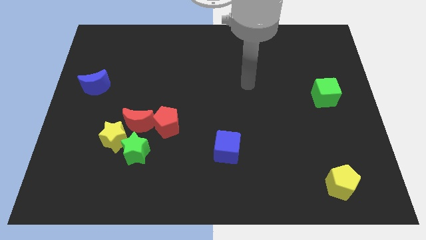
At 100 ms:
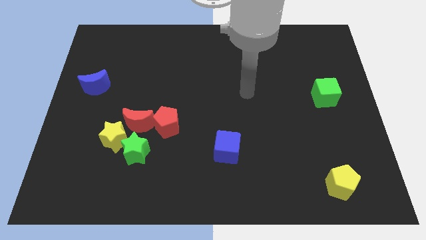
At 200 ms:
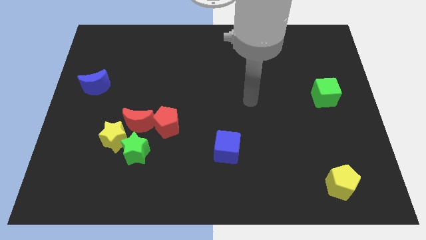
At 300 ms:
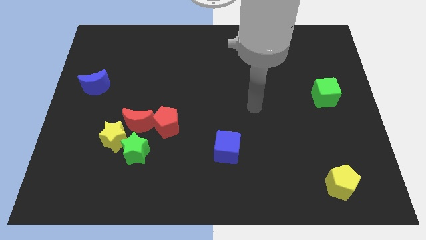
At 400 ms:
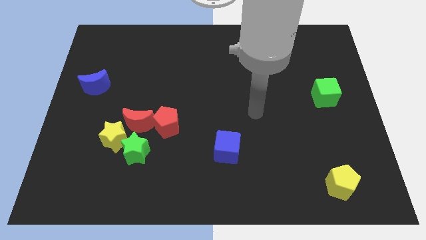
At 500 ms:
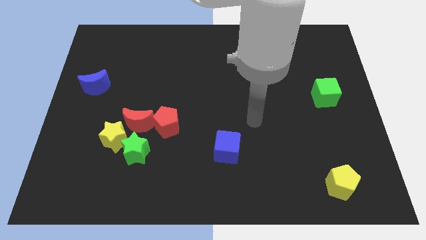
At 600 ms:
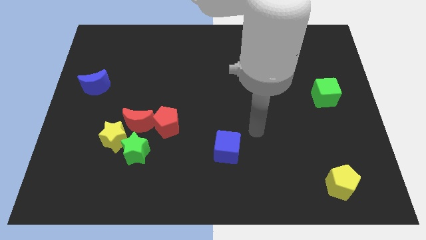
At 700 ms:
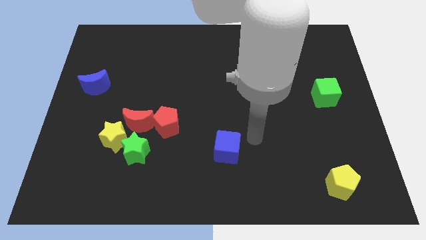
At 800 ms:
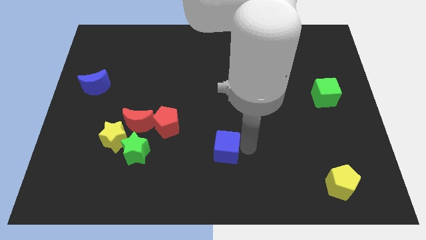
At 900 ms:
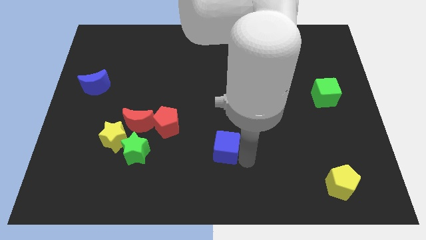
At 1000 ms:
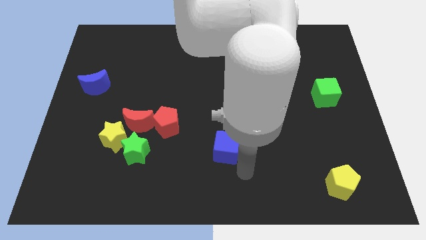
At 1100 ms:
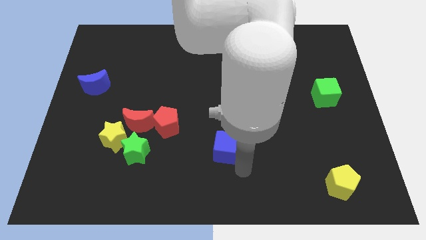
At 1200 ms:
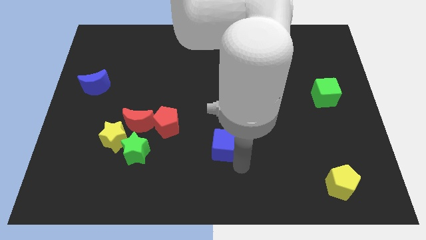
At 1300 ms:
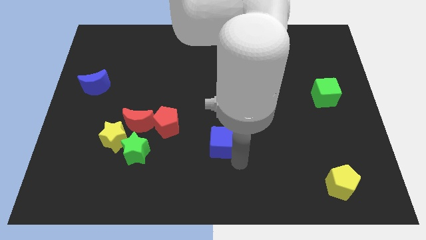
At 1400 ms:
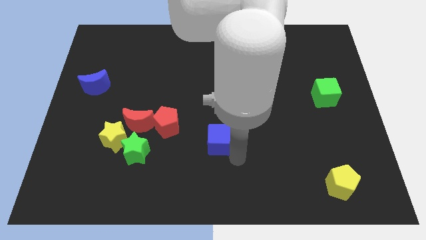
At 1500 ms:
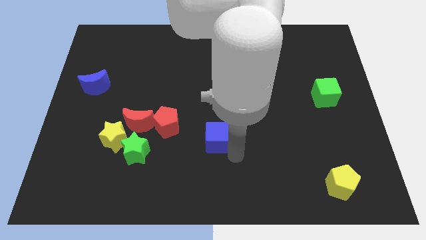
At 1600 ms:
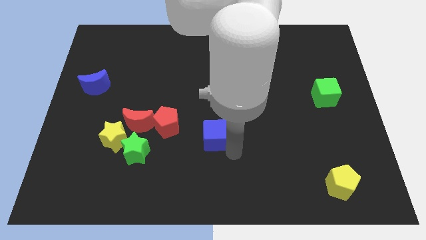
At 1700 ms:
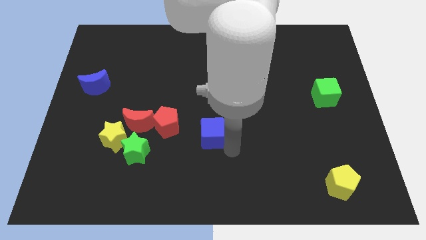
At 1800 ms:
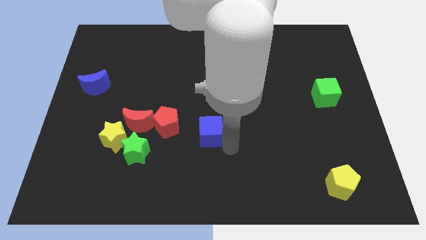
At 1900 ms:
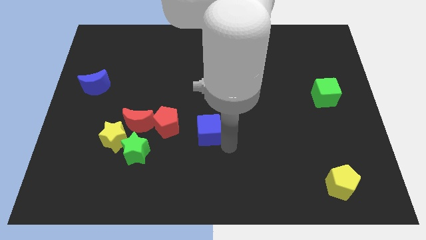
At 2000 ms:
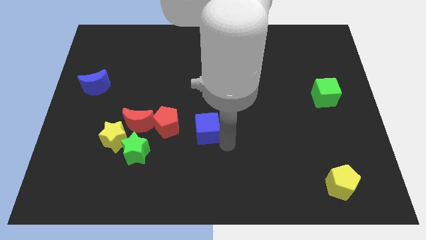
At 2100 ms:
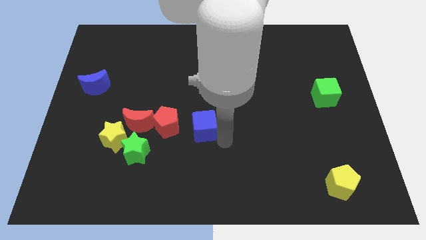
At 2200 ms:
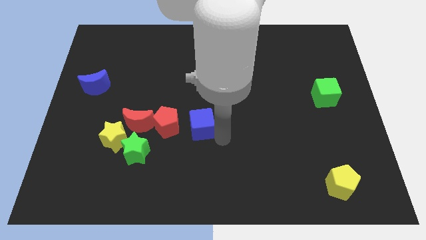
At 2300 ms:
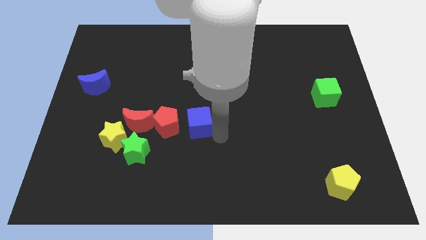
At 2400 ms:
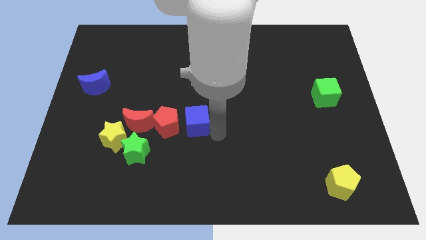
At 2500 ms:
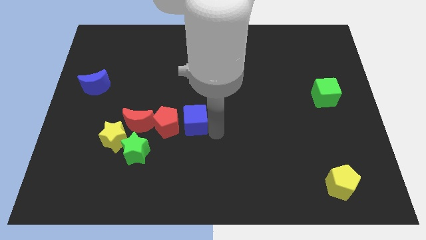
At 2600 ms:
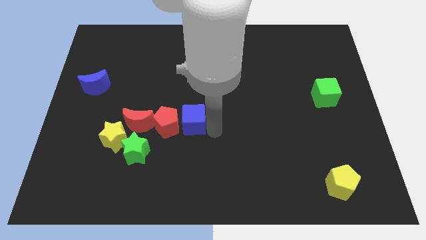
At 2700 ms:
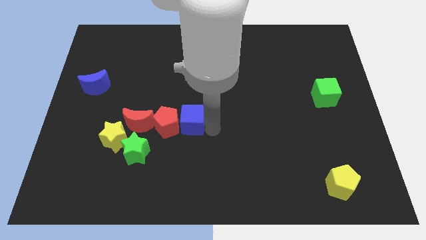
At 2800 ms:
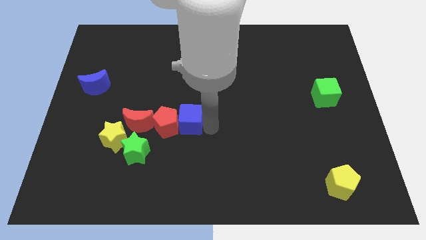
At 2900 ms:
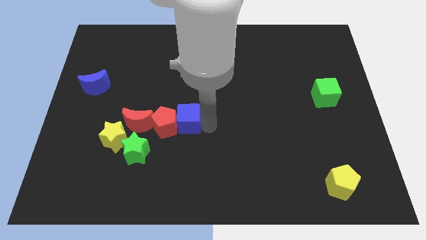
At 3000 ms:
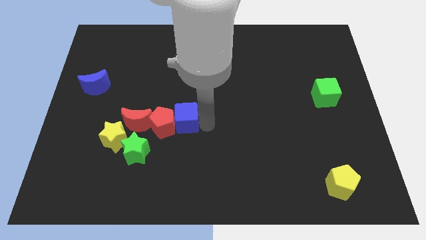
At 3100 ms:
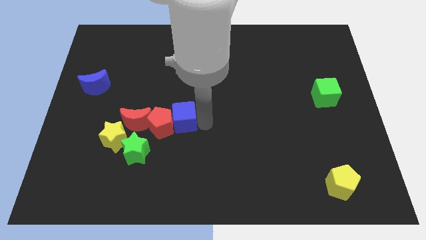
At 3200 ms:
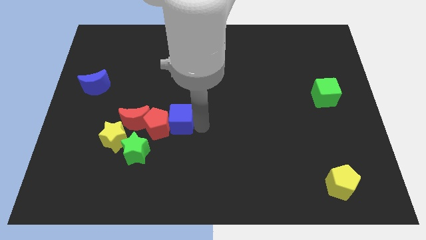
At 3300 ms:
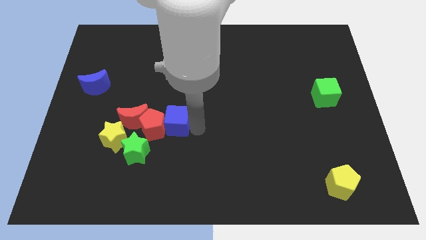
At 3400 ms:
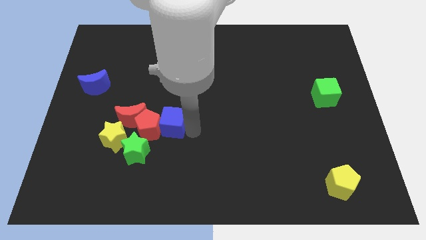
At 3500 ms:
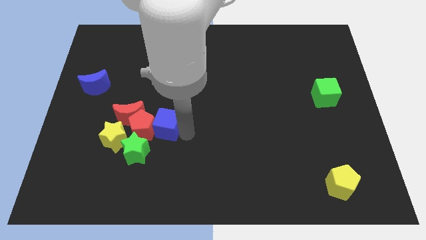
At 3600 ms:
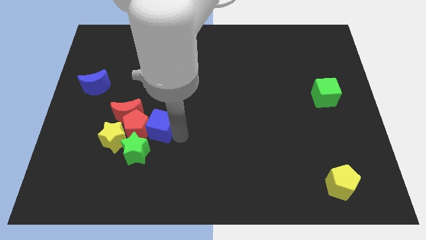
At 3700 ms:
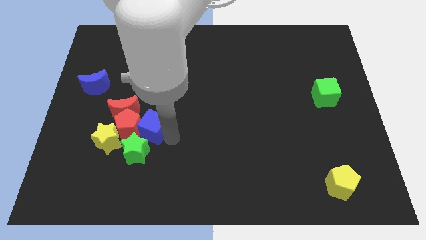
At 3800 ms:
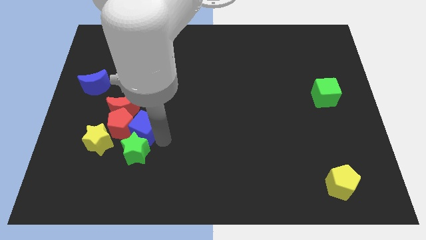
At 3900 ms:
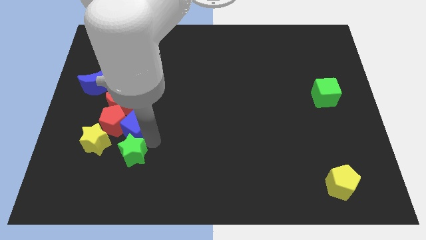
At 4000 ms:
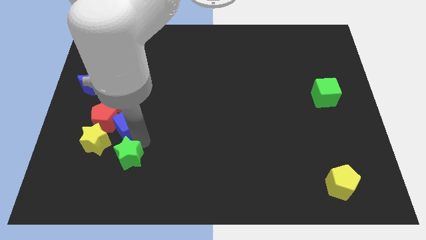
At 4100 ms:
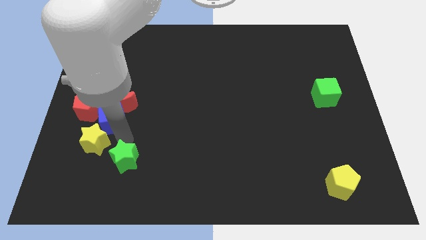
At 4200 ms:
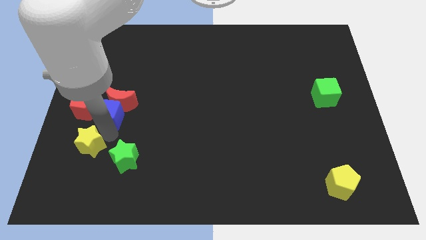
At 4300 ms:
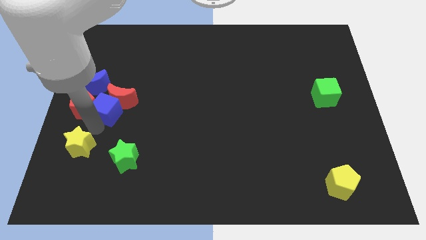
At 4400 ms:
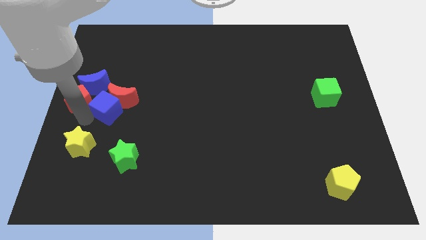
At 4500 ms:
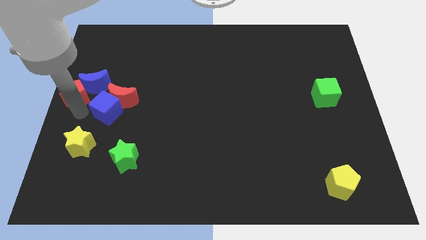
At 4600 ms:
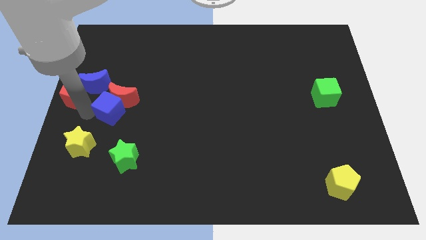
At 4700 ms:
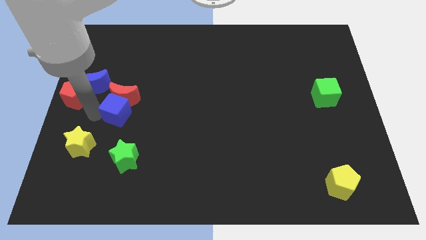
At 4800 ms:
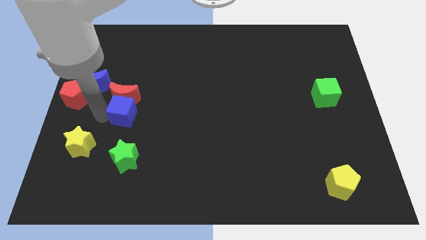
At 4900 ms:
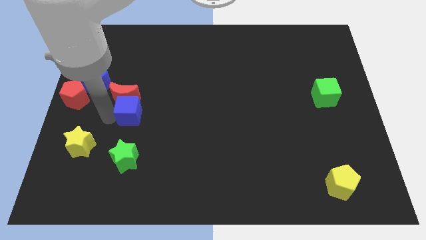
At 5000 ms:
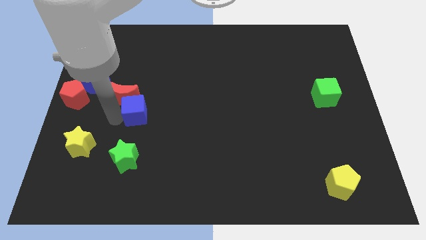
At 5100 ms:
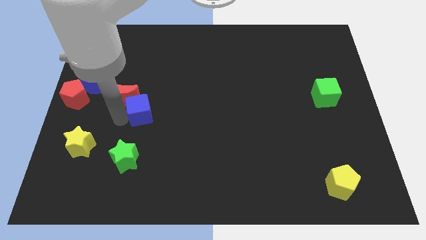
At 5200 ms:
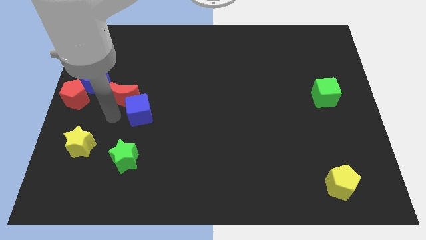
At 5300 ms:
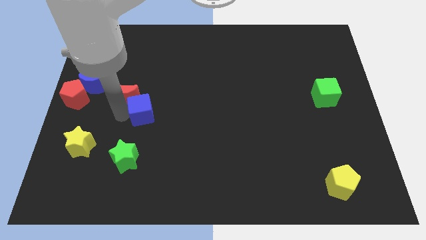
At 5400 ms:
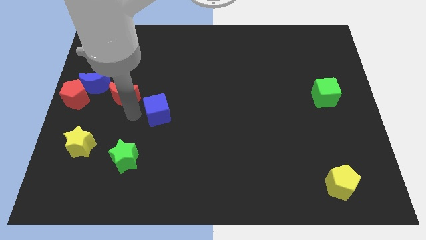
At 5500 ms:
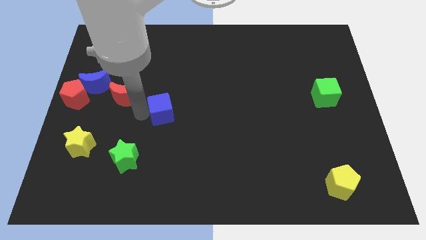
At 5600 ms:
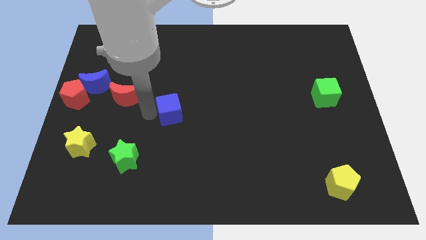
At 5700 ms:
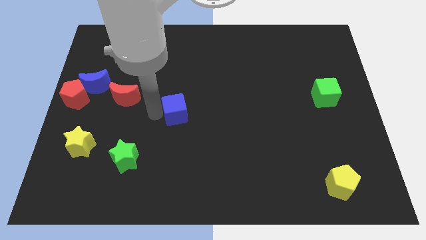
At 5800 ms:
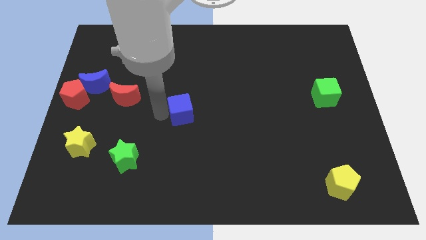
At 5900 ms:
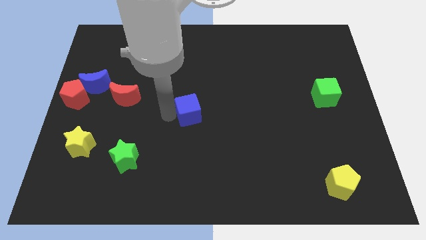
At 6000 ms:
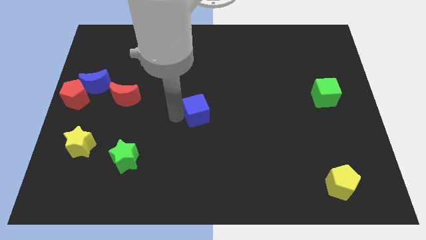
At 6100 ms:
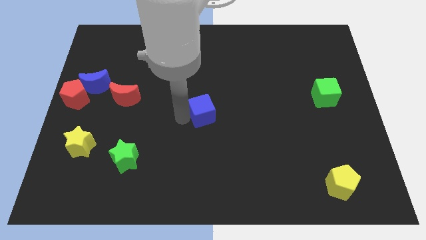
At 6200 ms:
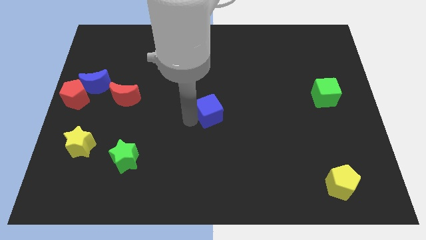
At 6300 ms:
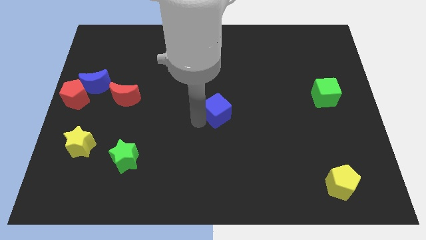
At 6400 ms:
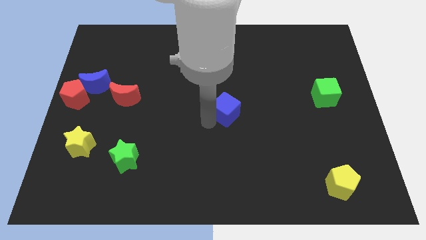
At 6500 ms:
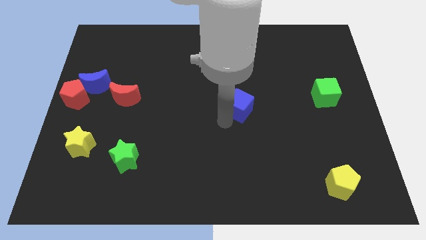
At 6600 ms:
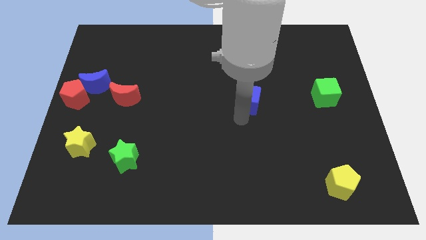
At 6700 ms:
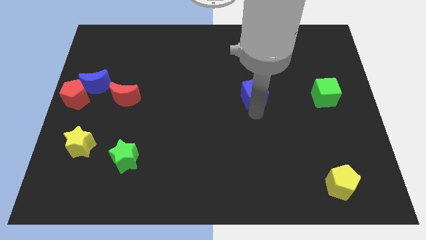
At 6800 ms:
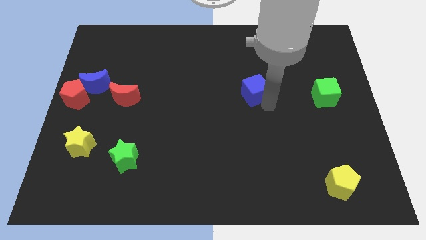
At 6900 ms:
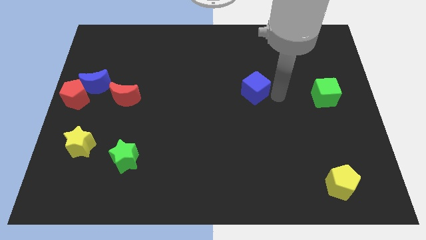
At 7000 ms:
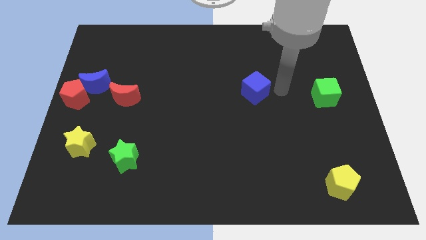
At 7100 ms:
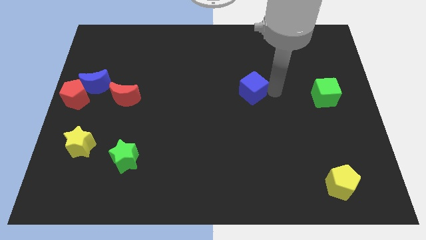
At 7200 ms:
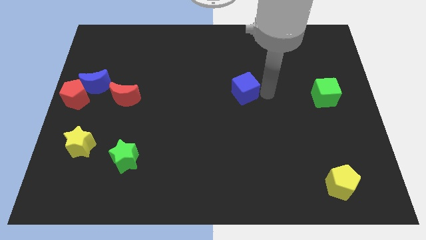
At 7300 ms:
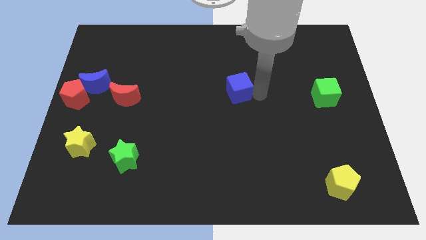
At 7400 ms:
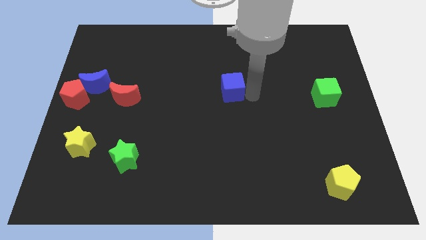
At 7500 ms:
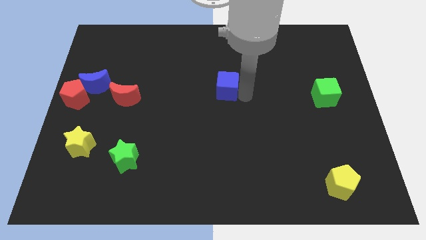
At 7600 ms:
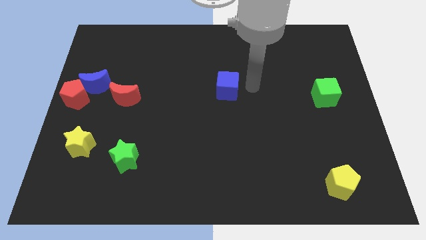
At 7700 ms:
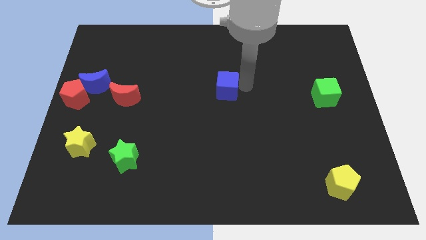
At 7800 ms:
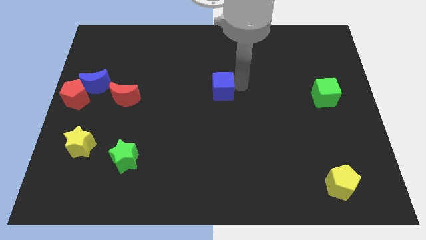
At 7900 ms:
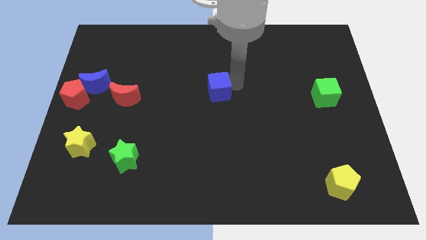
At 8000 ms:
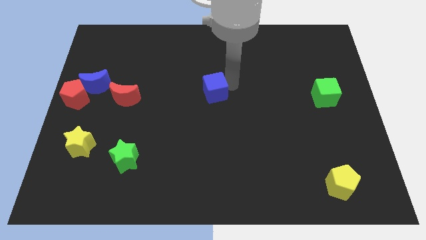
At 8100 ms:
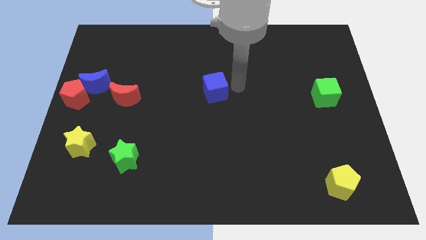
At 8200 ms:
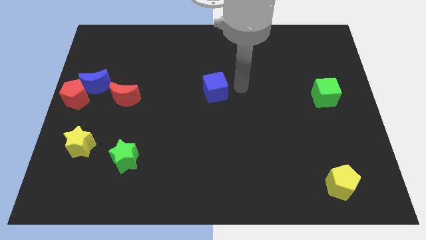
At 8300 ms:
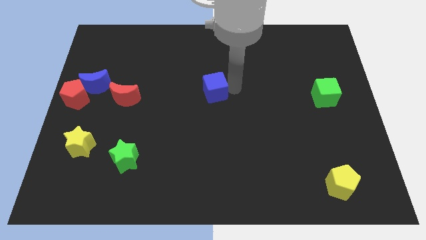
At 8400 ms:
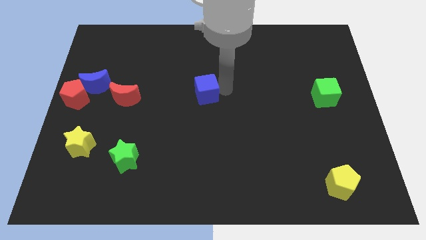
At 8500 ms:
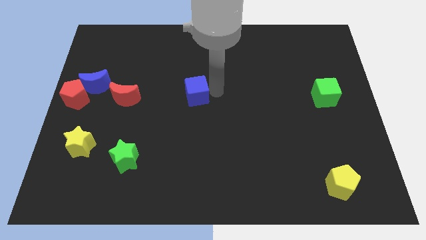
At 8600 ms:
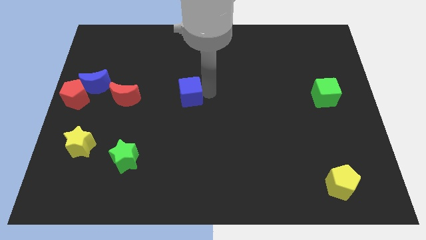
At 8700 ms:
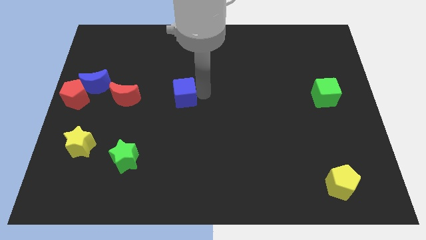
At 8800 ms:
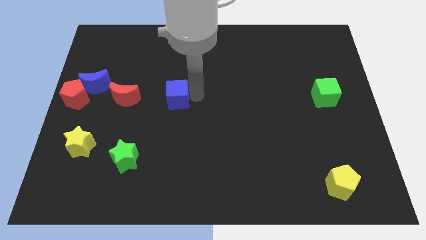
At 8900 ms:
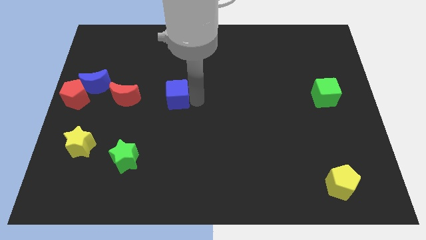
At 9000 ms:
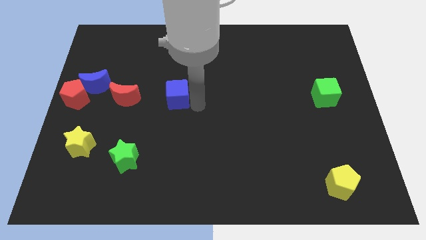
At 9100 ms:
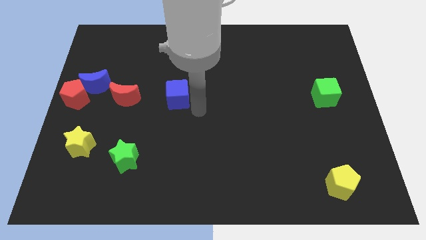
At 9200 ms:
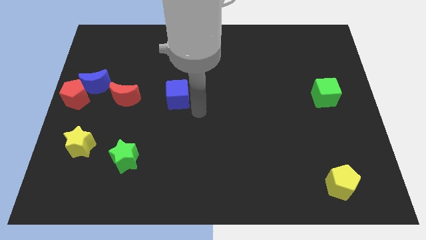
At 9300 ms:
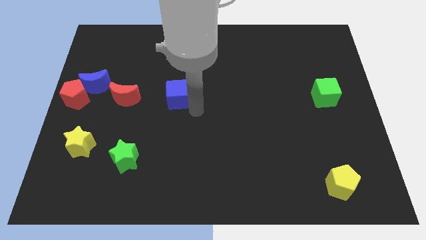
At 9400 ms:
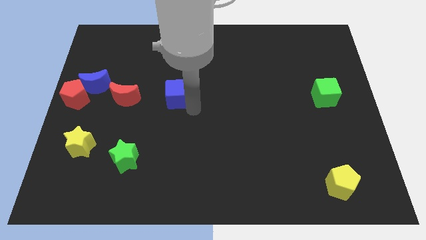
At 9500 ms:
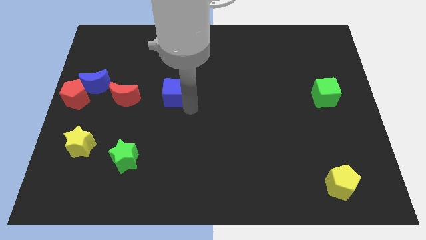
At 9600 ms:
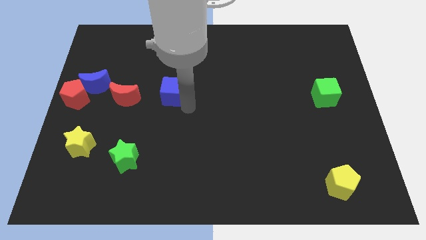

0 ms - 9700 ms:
push the blue cube up and left
